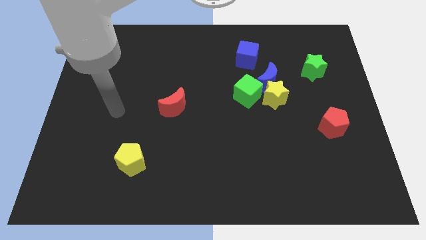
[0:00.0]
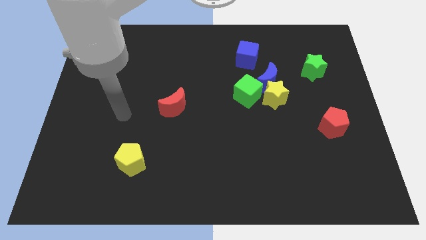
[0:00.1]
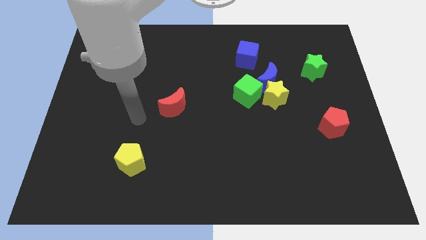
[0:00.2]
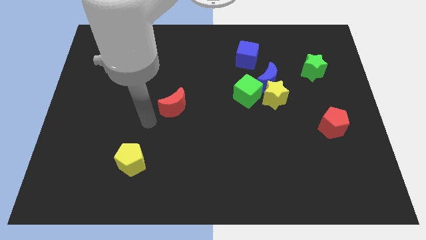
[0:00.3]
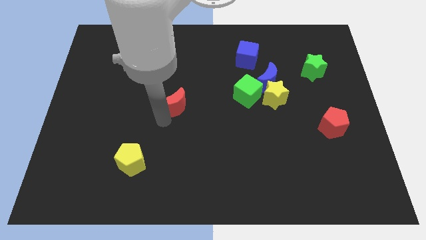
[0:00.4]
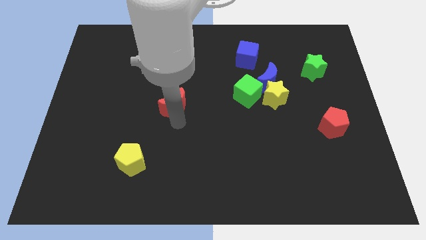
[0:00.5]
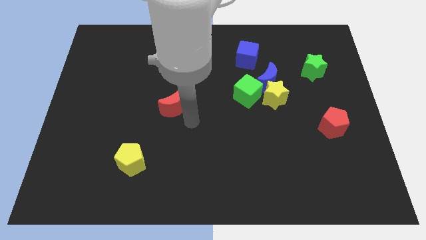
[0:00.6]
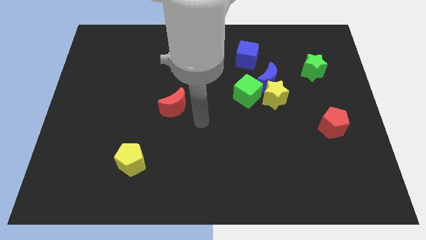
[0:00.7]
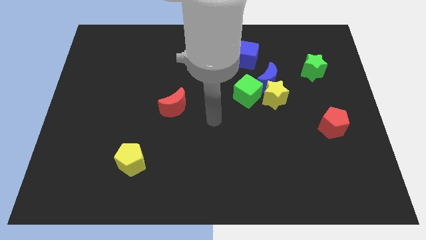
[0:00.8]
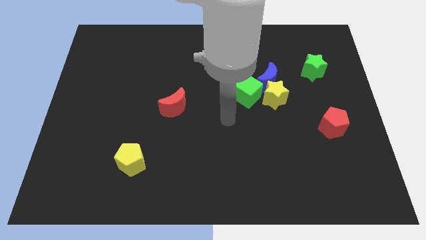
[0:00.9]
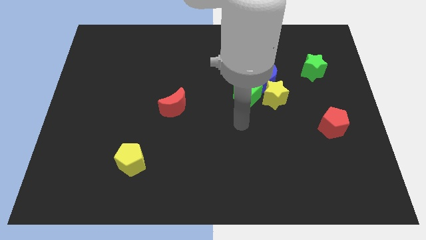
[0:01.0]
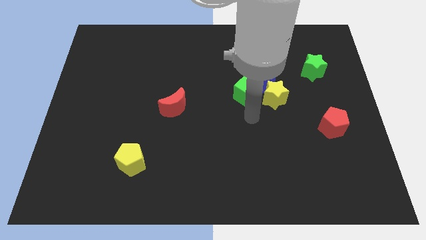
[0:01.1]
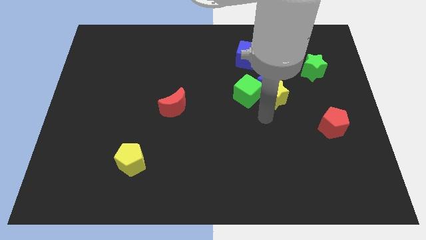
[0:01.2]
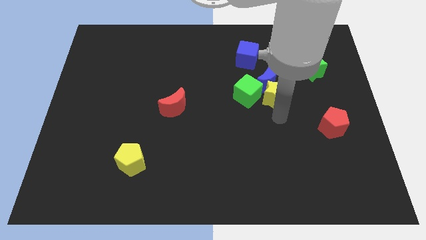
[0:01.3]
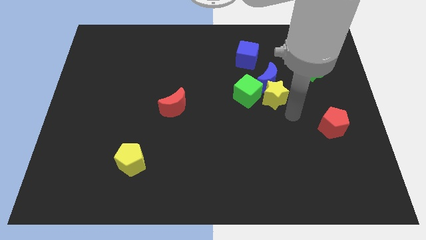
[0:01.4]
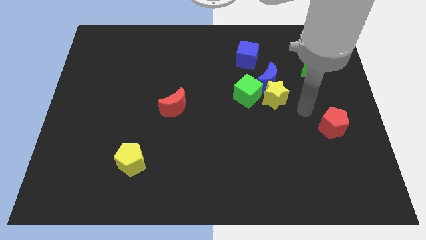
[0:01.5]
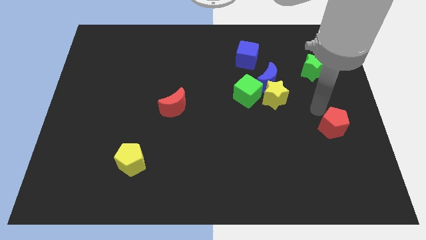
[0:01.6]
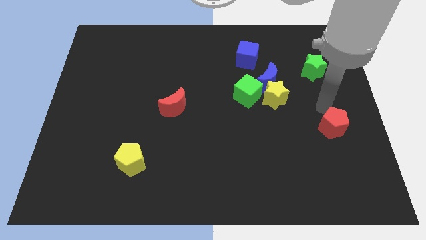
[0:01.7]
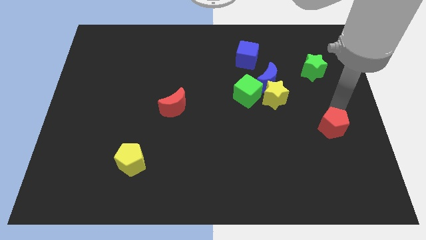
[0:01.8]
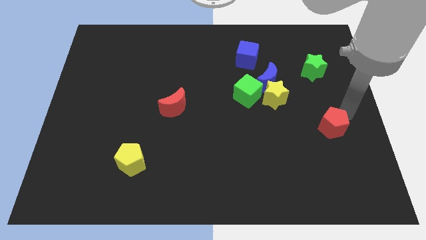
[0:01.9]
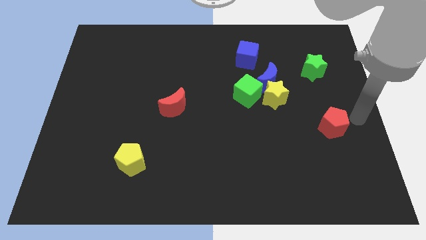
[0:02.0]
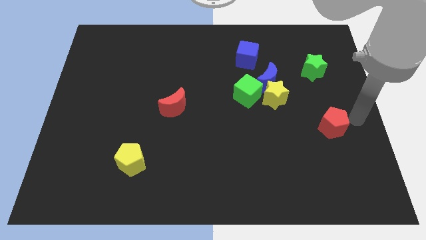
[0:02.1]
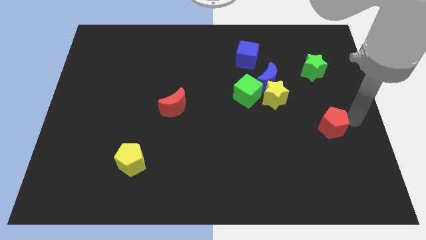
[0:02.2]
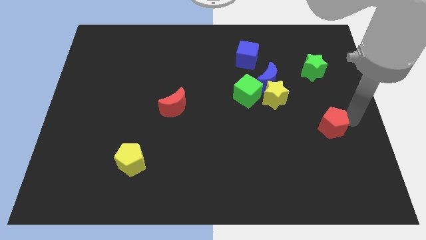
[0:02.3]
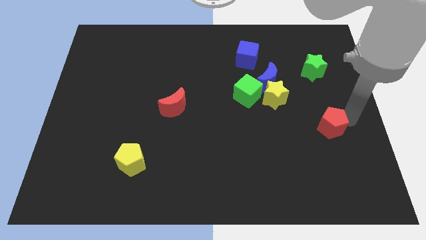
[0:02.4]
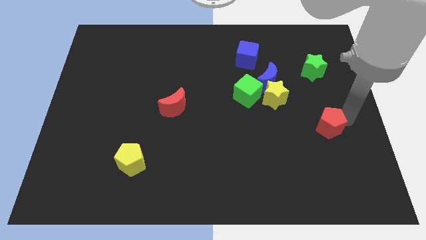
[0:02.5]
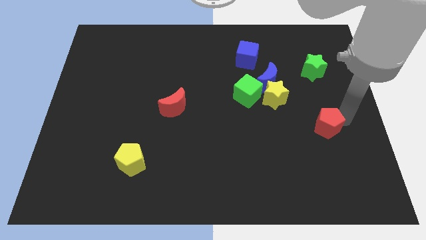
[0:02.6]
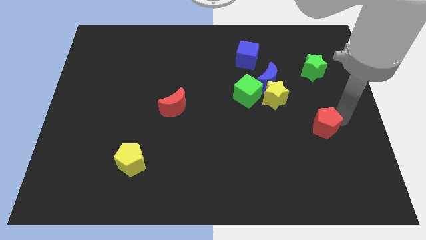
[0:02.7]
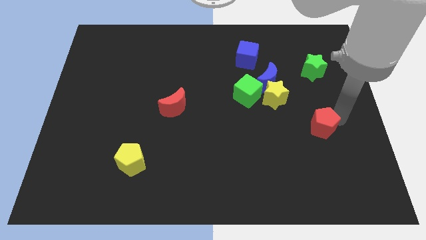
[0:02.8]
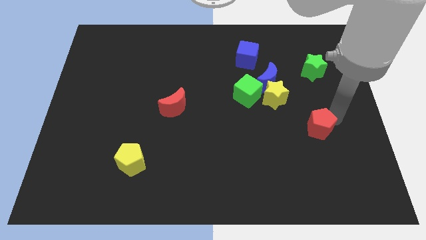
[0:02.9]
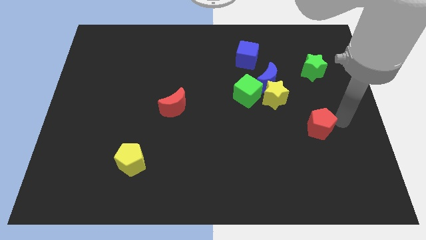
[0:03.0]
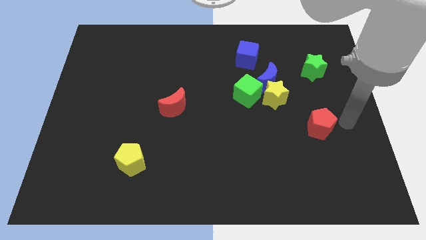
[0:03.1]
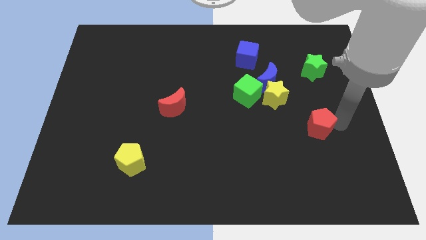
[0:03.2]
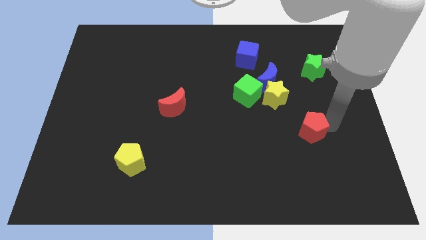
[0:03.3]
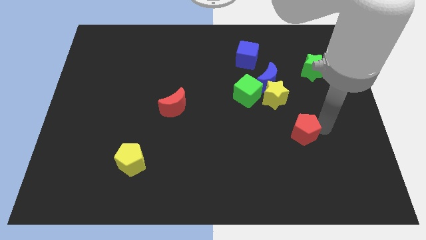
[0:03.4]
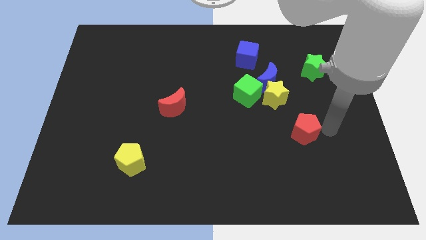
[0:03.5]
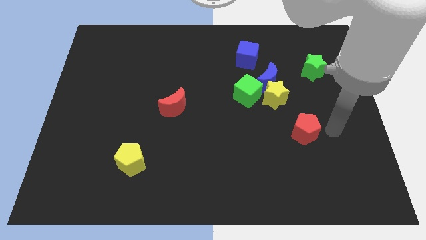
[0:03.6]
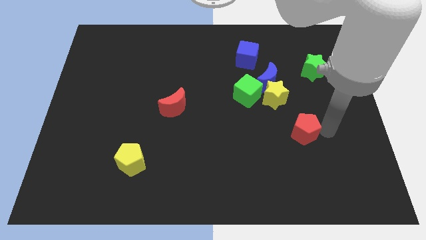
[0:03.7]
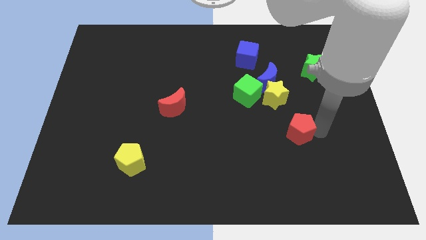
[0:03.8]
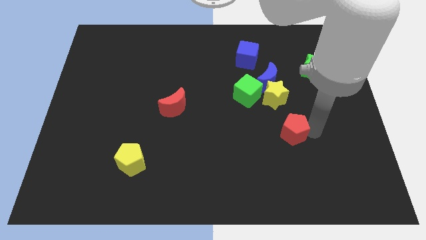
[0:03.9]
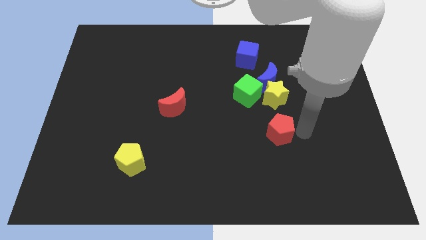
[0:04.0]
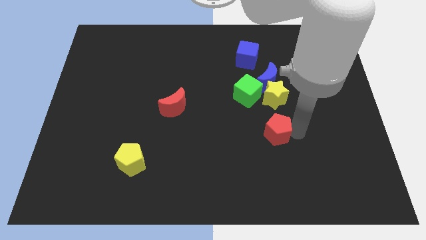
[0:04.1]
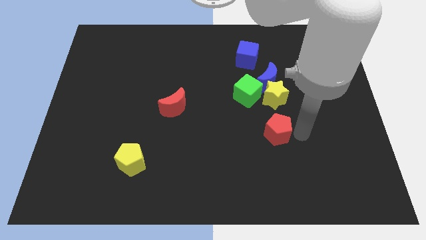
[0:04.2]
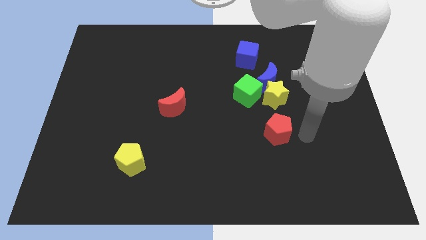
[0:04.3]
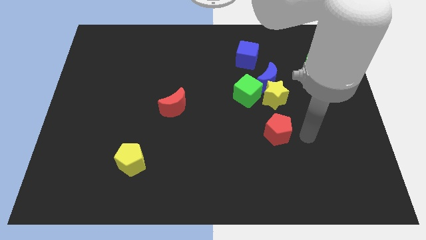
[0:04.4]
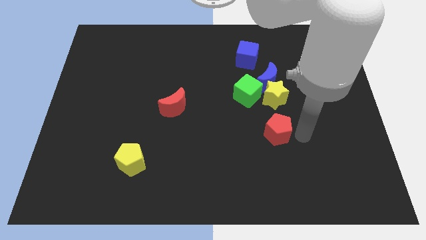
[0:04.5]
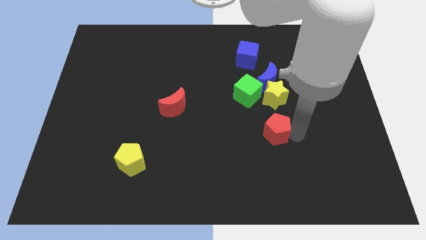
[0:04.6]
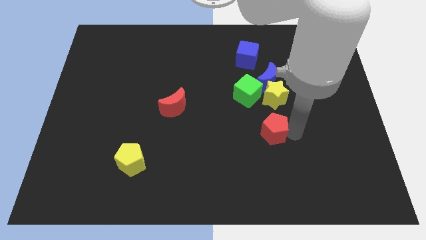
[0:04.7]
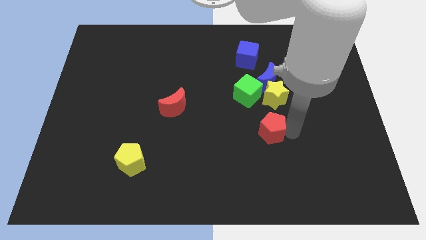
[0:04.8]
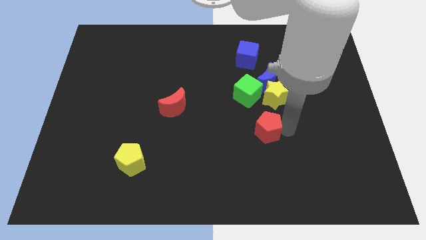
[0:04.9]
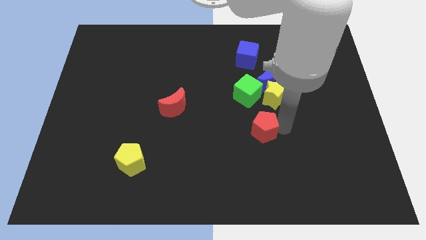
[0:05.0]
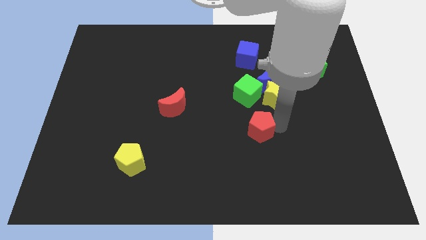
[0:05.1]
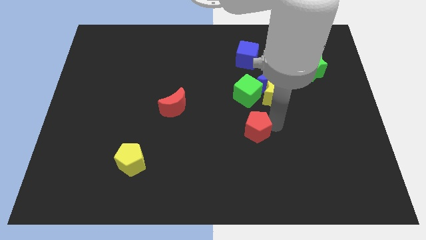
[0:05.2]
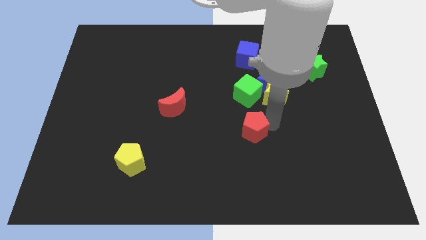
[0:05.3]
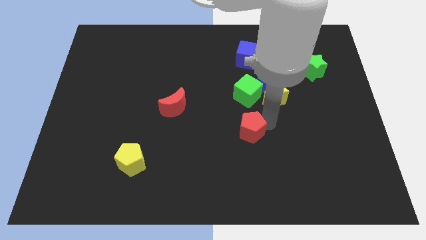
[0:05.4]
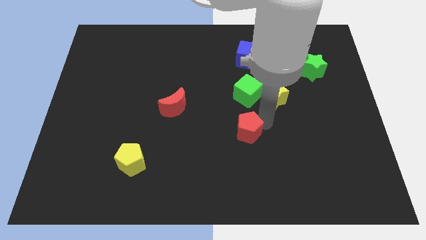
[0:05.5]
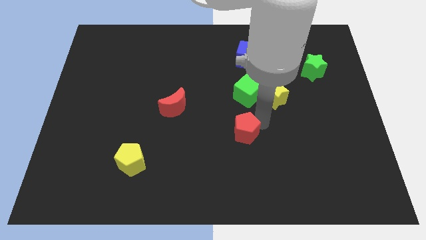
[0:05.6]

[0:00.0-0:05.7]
push the red pentagon to the left

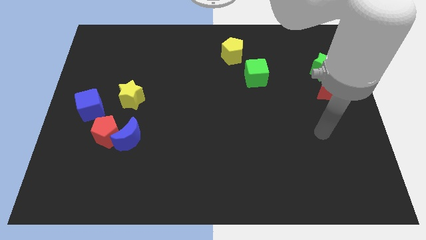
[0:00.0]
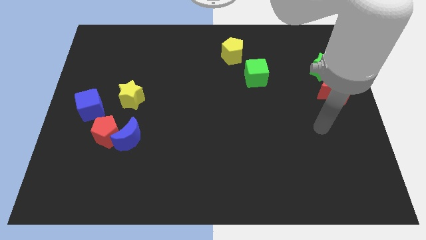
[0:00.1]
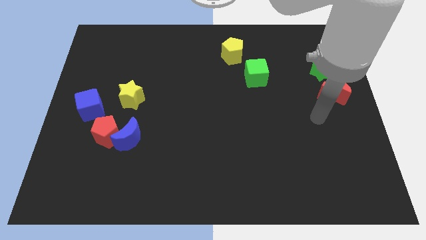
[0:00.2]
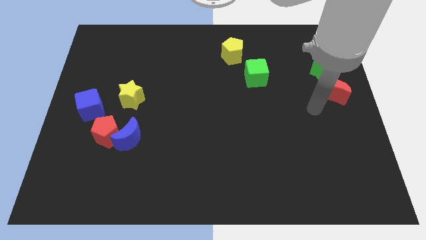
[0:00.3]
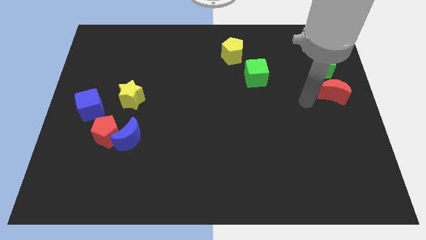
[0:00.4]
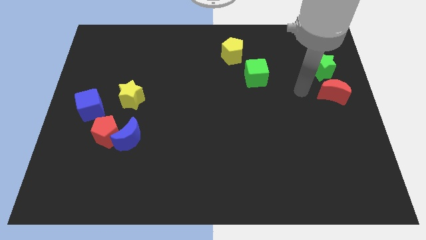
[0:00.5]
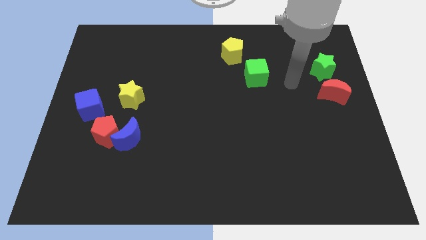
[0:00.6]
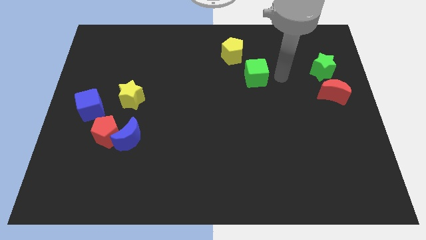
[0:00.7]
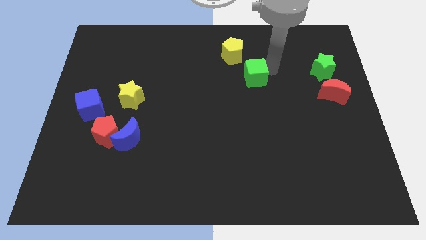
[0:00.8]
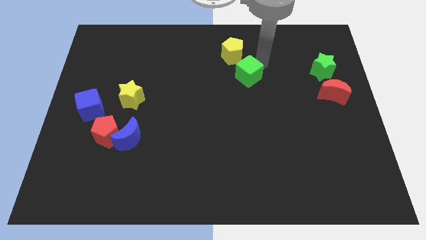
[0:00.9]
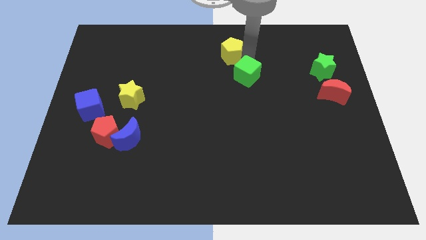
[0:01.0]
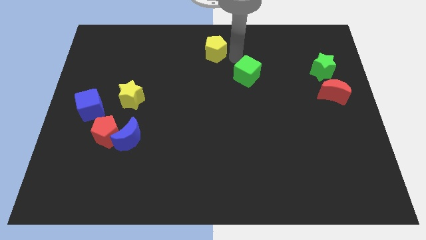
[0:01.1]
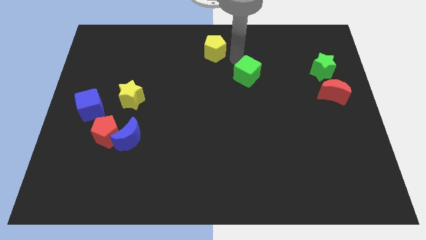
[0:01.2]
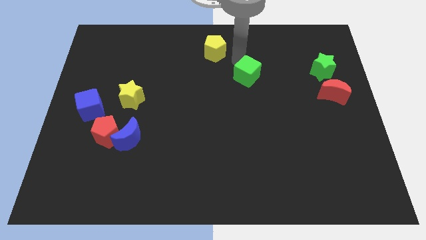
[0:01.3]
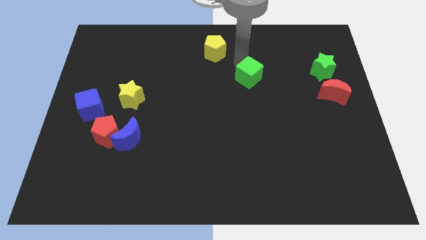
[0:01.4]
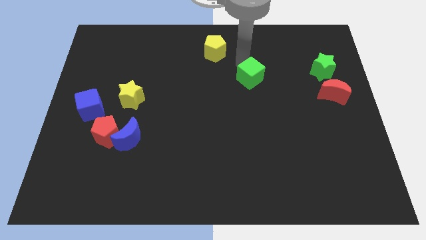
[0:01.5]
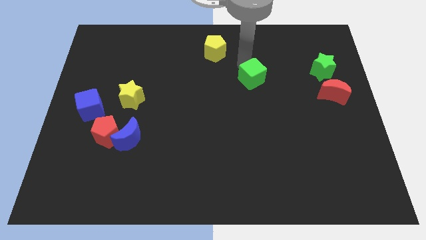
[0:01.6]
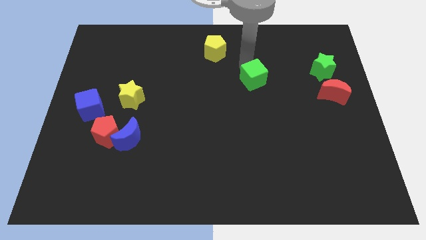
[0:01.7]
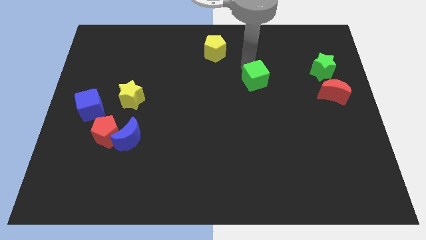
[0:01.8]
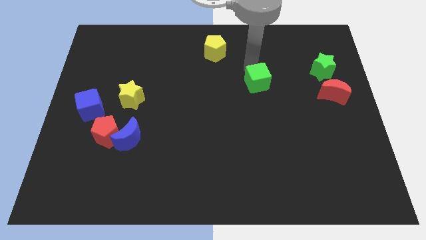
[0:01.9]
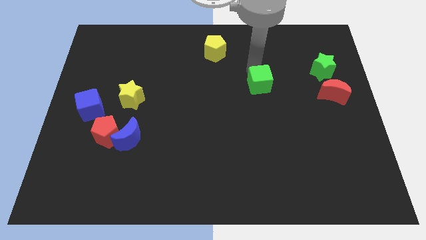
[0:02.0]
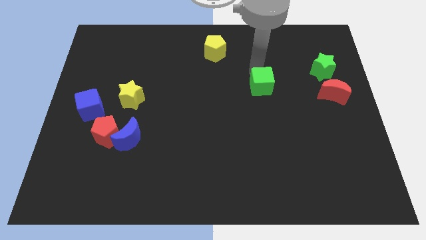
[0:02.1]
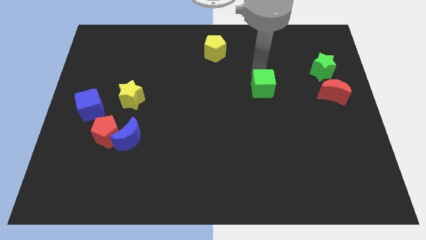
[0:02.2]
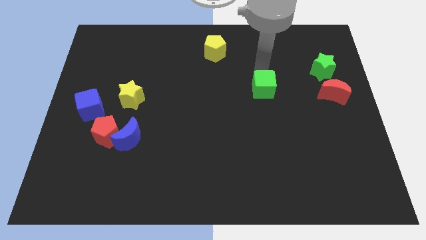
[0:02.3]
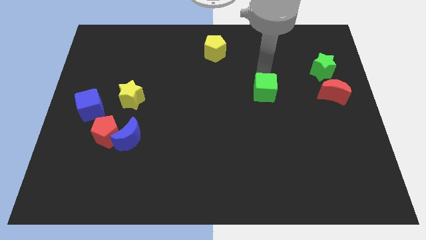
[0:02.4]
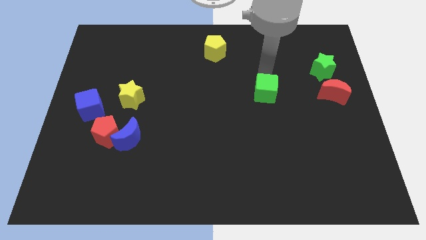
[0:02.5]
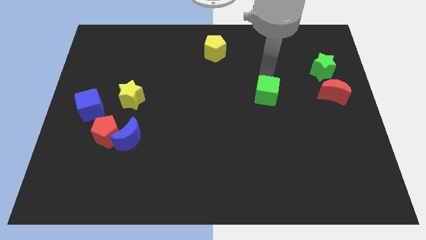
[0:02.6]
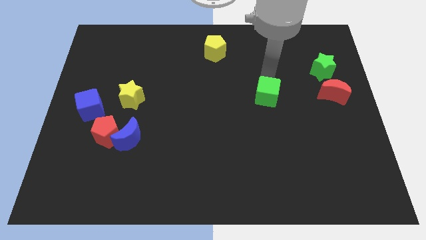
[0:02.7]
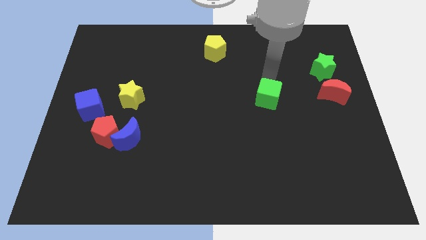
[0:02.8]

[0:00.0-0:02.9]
push the green cube down a little
